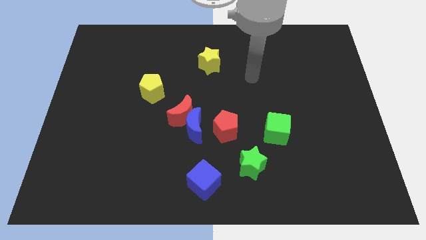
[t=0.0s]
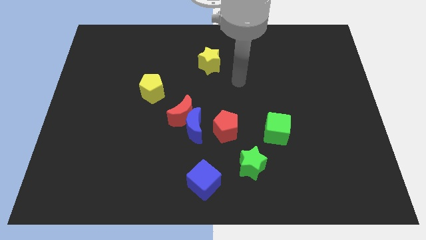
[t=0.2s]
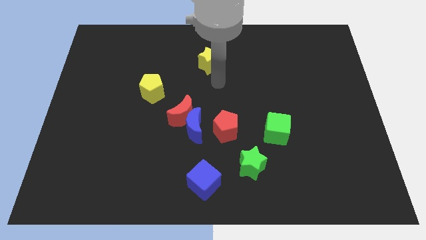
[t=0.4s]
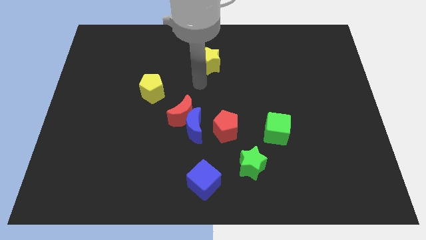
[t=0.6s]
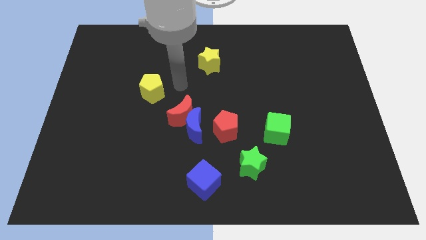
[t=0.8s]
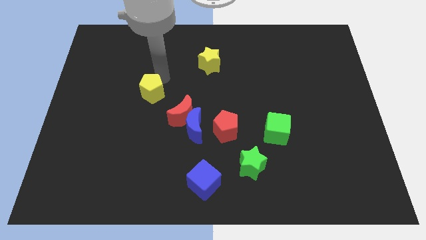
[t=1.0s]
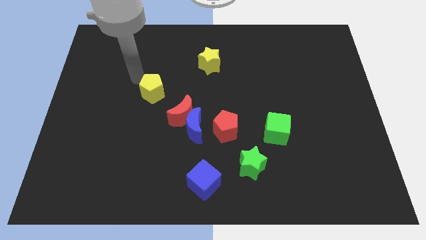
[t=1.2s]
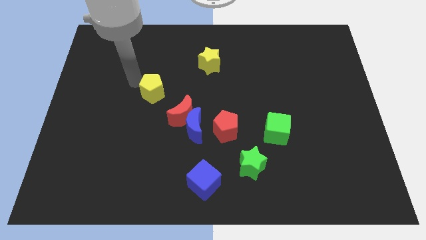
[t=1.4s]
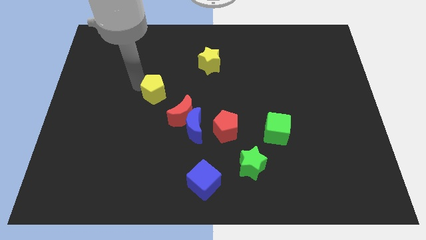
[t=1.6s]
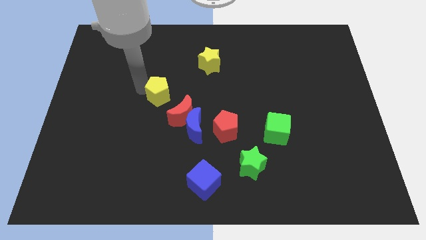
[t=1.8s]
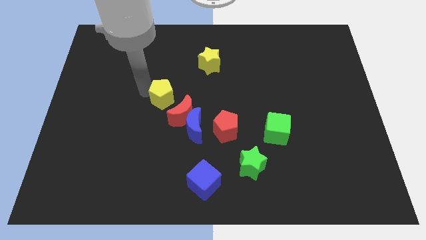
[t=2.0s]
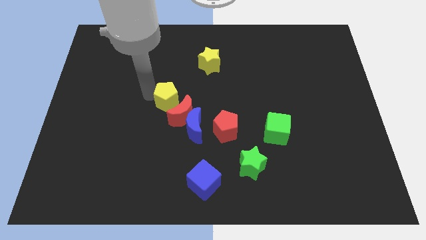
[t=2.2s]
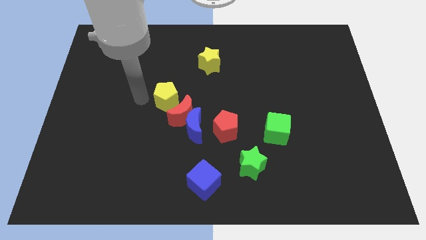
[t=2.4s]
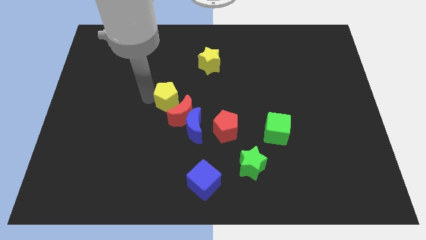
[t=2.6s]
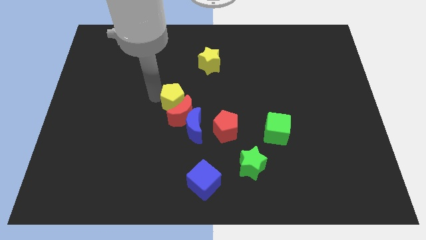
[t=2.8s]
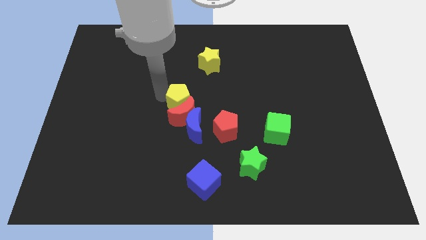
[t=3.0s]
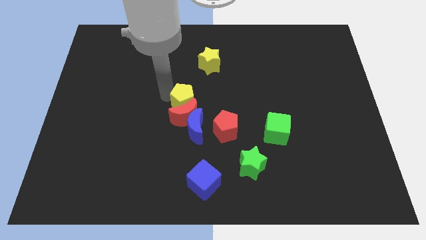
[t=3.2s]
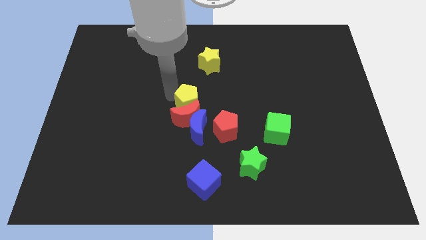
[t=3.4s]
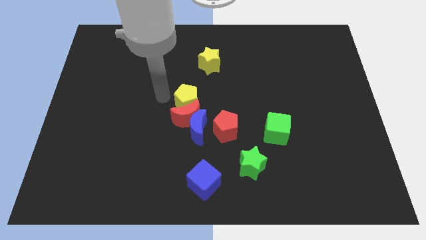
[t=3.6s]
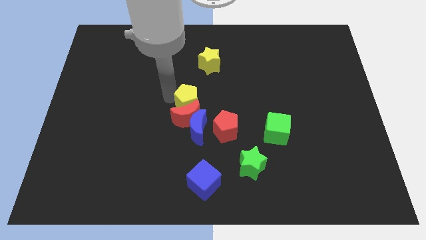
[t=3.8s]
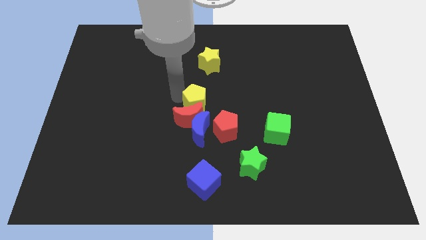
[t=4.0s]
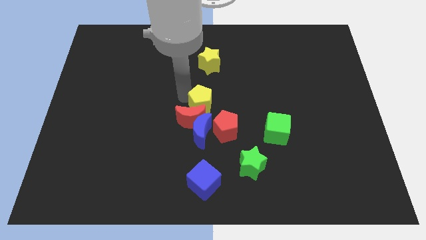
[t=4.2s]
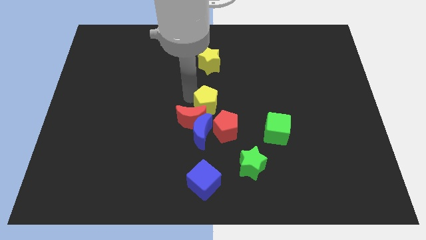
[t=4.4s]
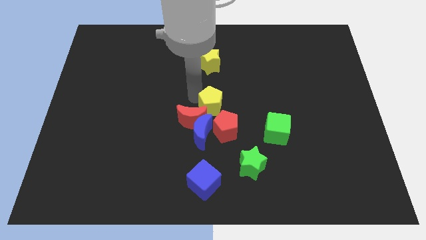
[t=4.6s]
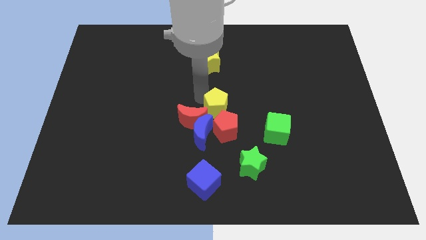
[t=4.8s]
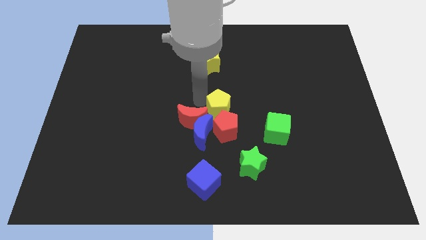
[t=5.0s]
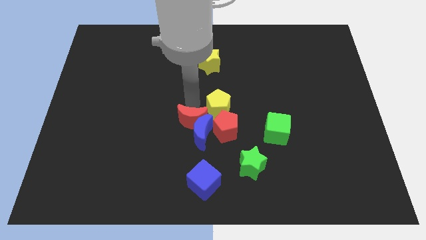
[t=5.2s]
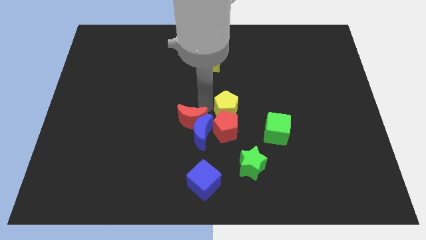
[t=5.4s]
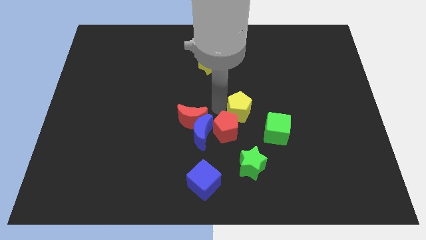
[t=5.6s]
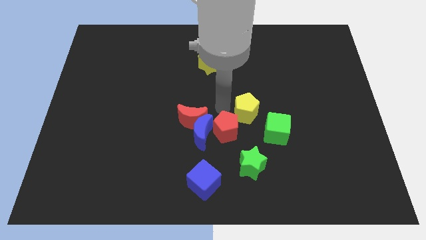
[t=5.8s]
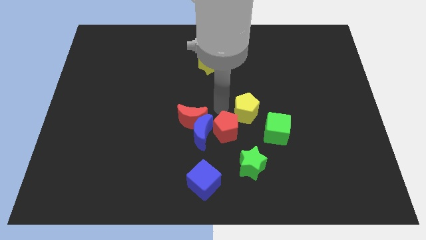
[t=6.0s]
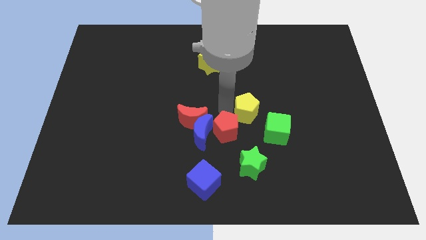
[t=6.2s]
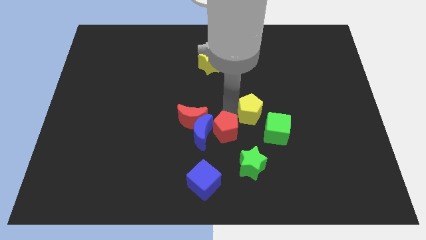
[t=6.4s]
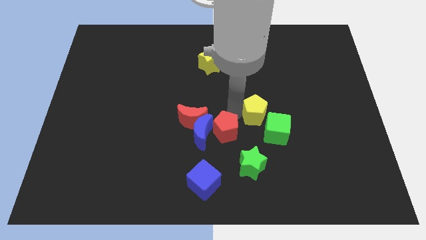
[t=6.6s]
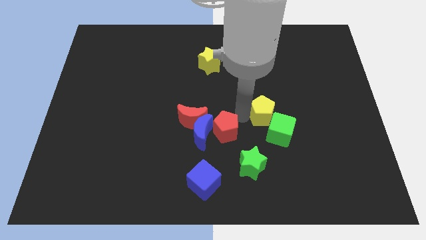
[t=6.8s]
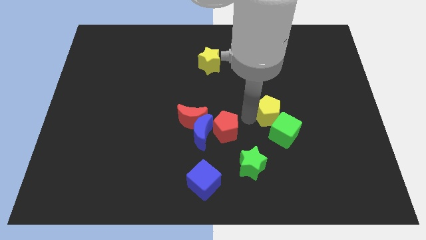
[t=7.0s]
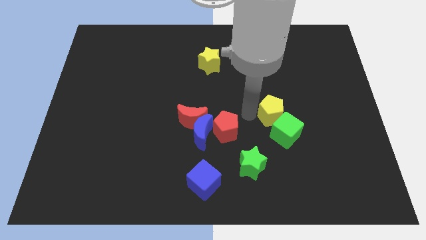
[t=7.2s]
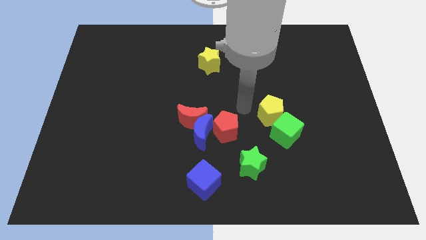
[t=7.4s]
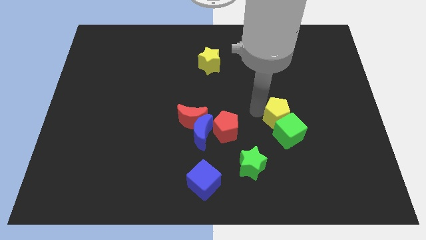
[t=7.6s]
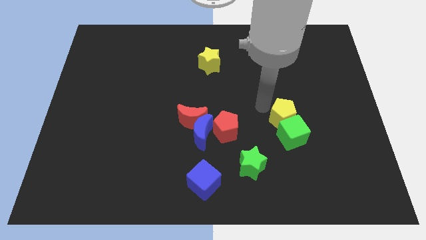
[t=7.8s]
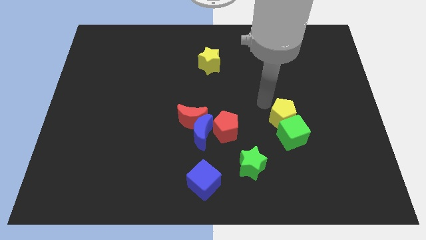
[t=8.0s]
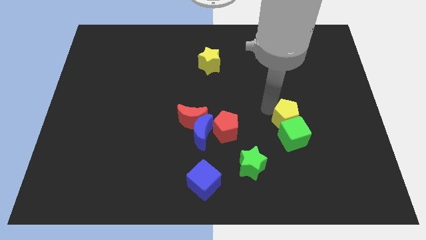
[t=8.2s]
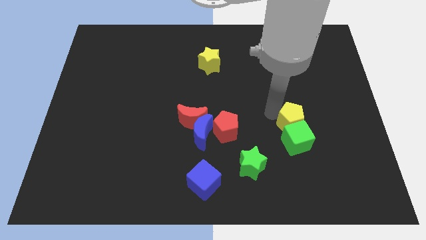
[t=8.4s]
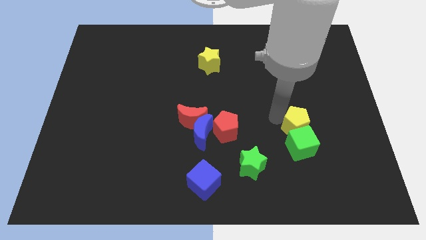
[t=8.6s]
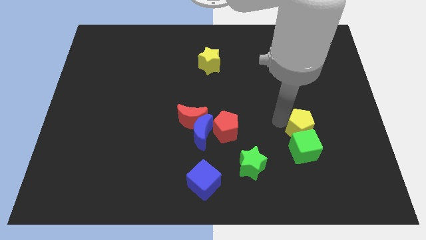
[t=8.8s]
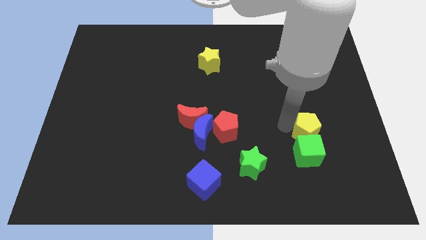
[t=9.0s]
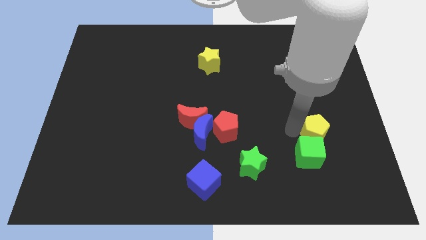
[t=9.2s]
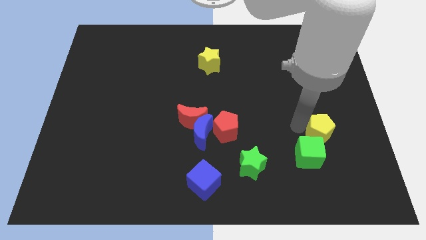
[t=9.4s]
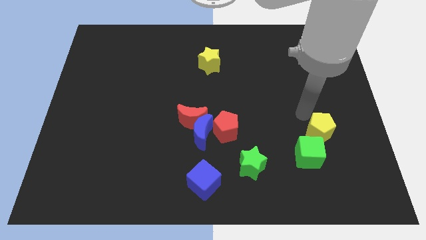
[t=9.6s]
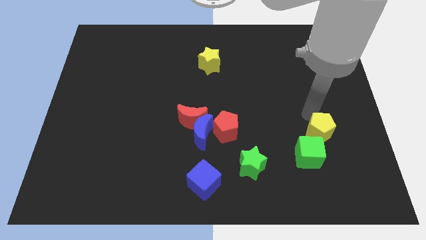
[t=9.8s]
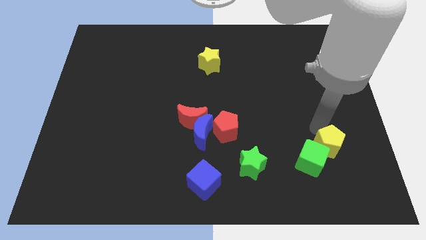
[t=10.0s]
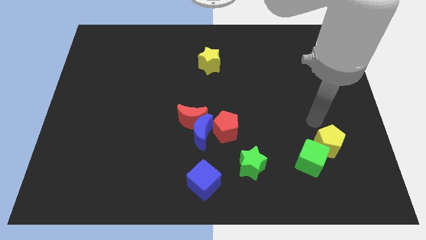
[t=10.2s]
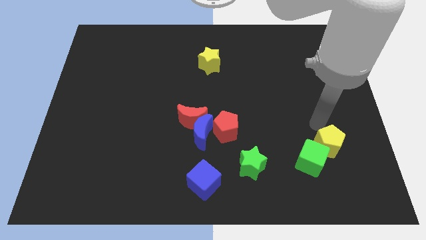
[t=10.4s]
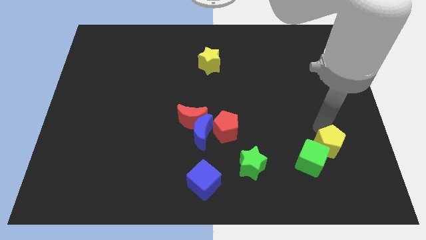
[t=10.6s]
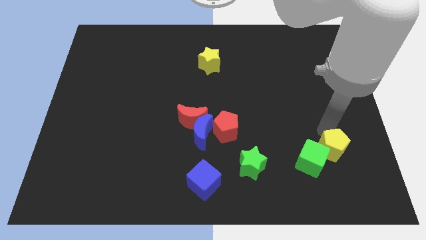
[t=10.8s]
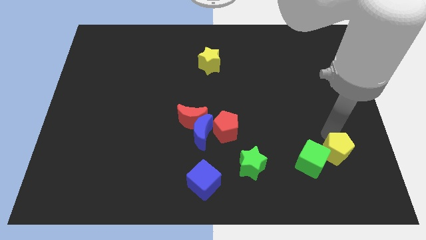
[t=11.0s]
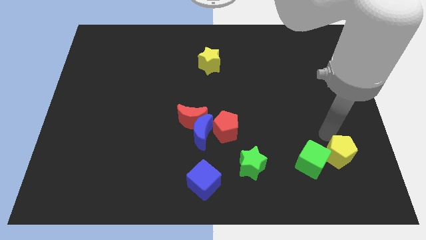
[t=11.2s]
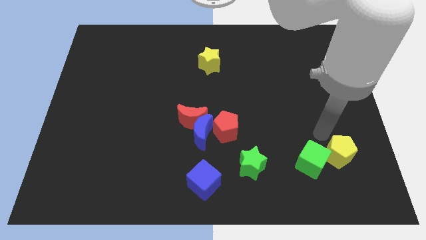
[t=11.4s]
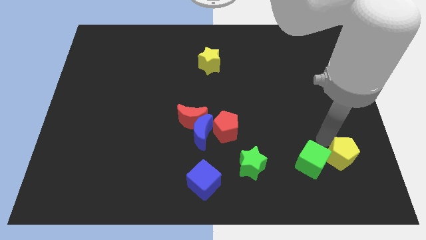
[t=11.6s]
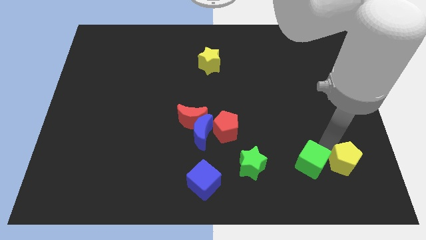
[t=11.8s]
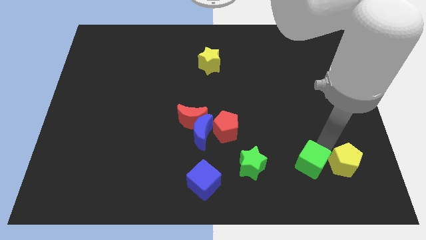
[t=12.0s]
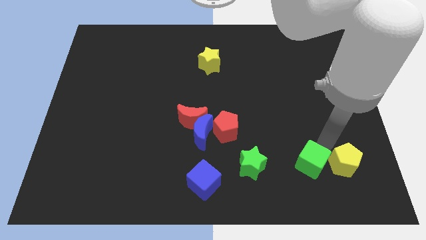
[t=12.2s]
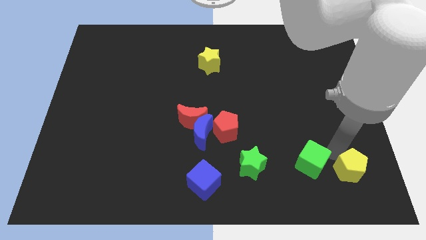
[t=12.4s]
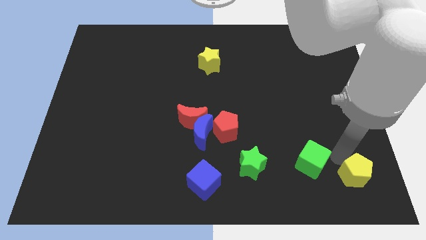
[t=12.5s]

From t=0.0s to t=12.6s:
slide the yellow pentagon to the bottom right of the board
